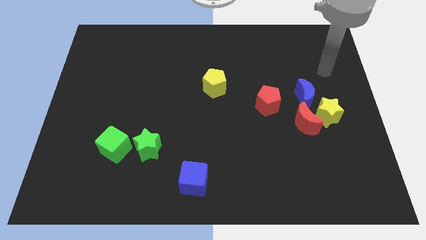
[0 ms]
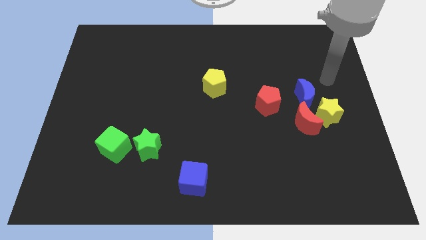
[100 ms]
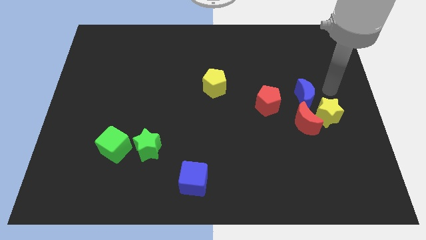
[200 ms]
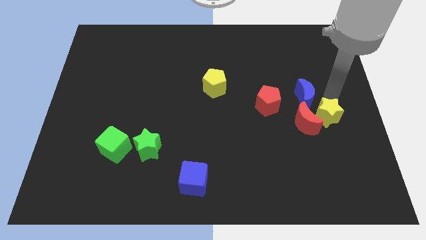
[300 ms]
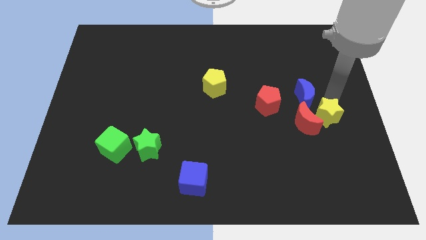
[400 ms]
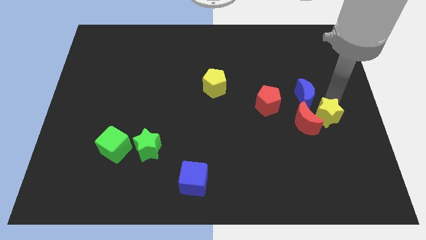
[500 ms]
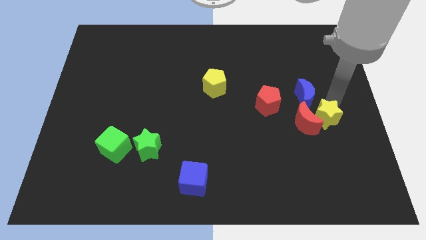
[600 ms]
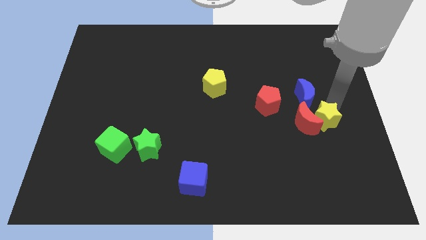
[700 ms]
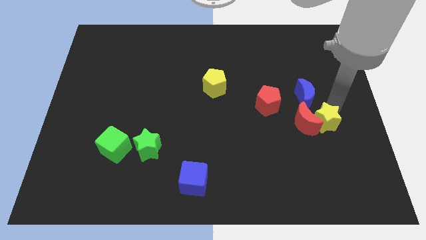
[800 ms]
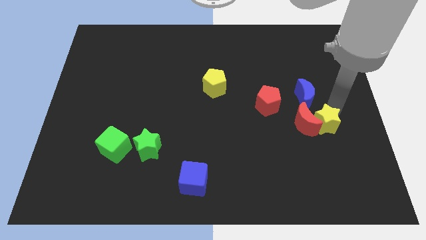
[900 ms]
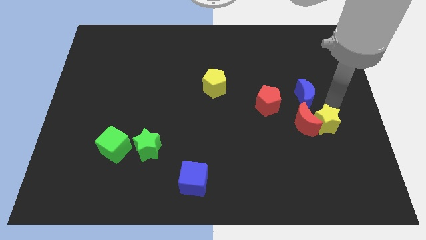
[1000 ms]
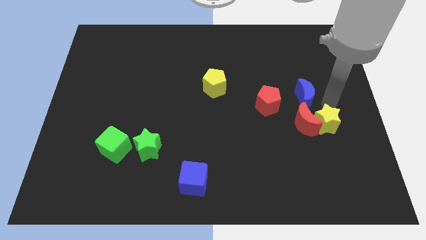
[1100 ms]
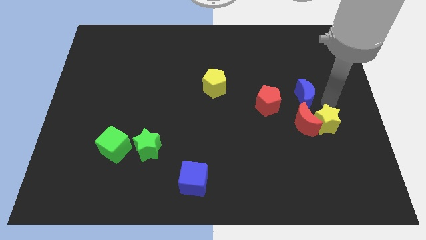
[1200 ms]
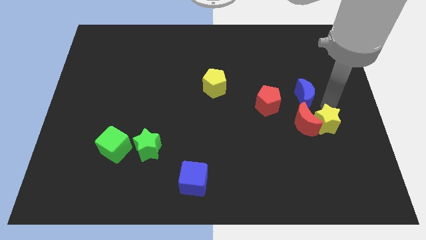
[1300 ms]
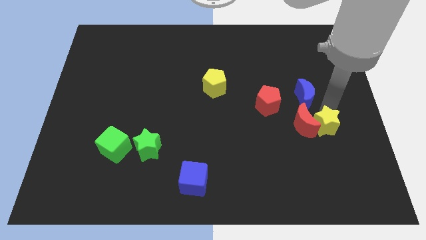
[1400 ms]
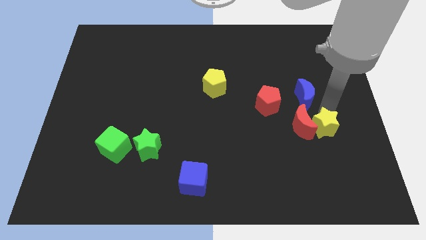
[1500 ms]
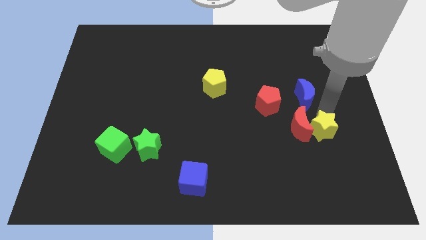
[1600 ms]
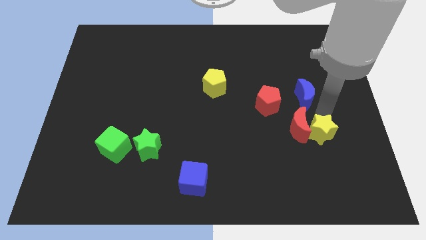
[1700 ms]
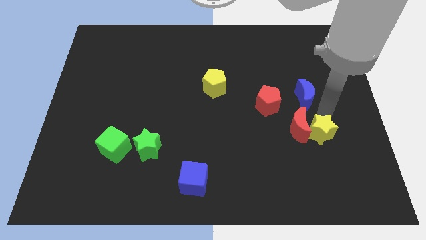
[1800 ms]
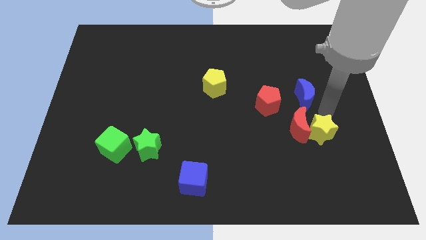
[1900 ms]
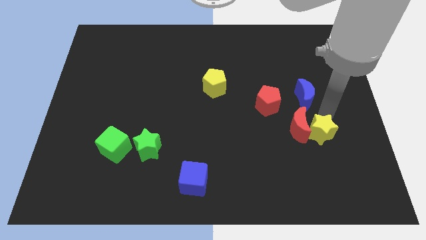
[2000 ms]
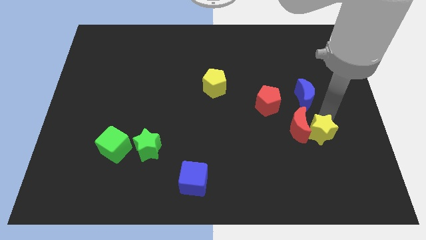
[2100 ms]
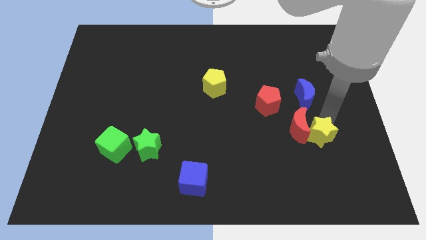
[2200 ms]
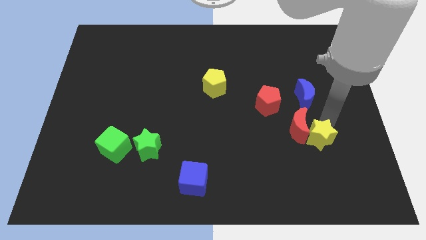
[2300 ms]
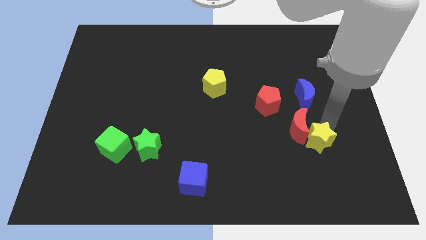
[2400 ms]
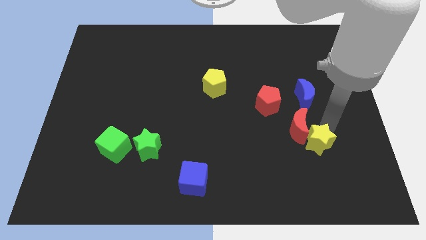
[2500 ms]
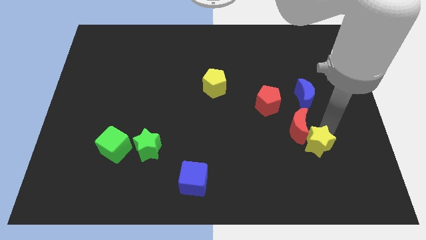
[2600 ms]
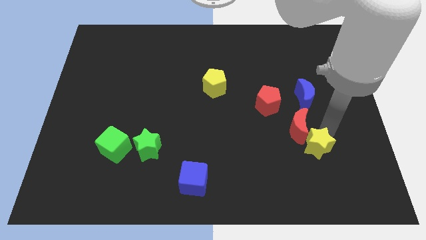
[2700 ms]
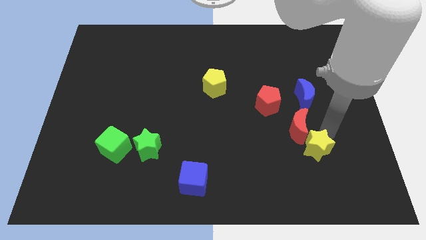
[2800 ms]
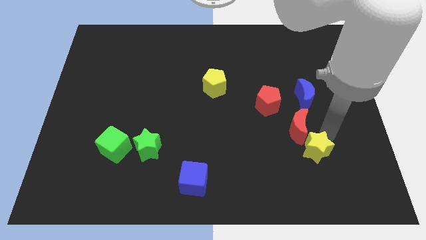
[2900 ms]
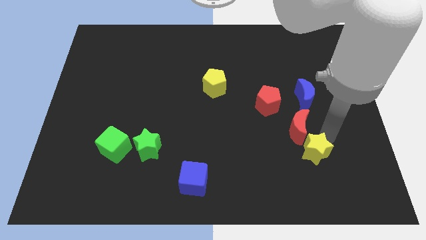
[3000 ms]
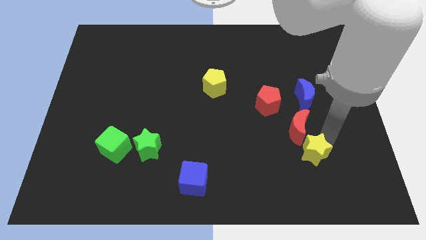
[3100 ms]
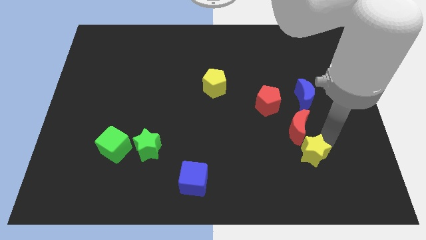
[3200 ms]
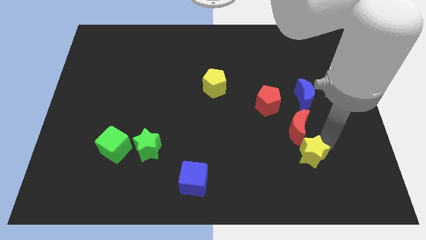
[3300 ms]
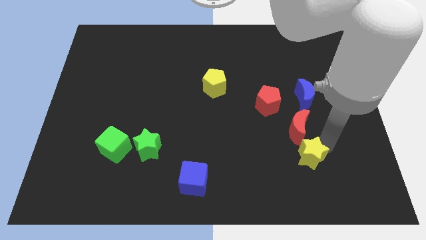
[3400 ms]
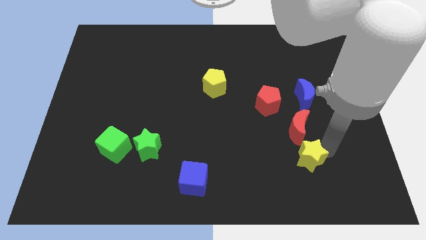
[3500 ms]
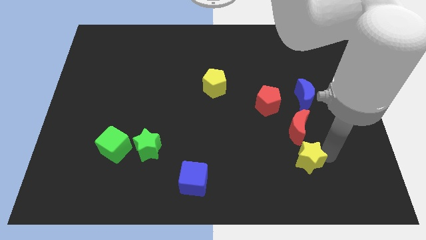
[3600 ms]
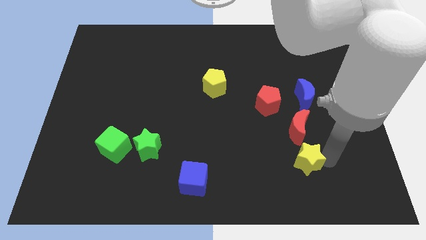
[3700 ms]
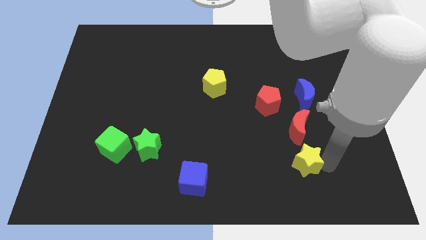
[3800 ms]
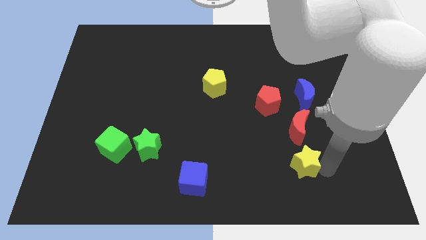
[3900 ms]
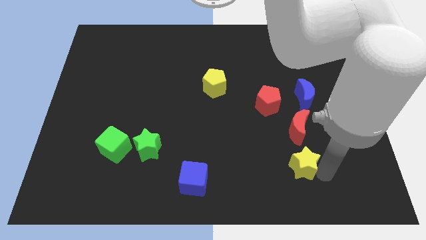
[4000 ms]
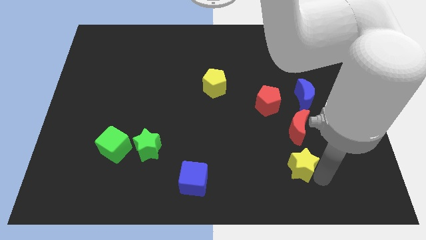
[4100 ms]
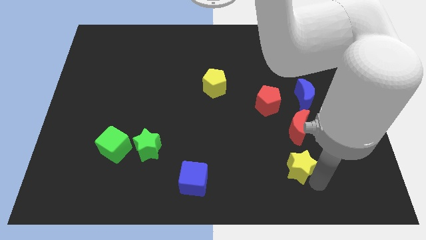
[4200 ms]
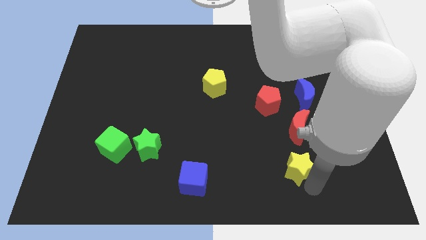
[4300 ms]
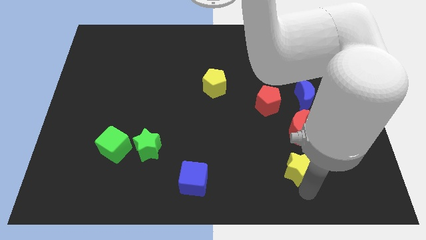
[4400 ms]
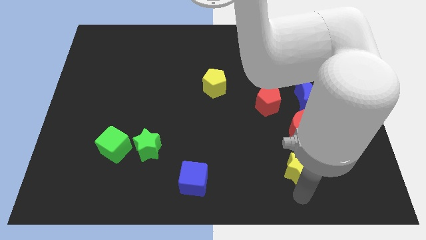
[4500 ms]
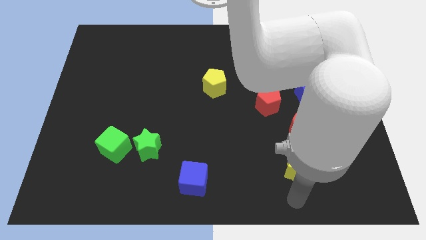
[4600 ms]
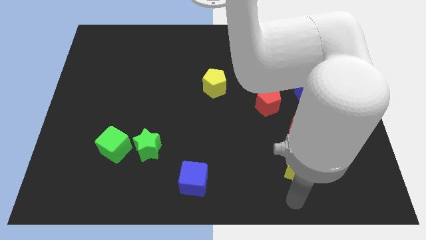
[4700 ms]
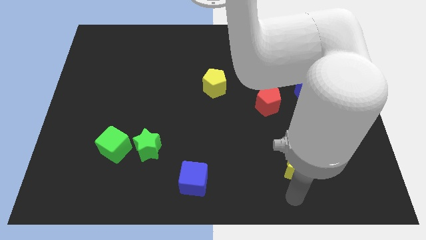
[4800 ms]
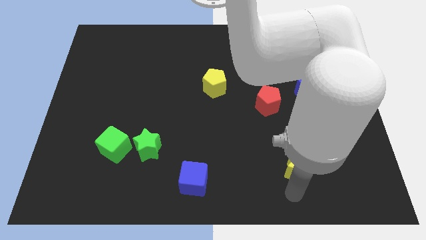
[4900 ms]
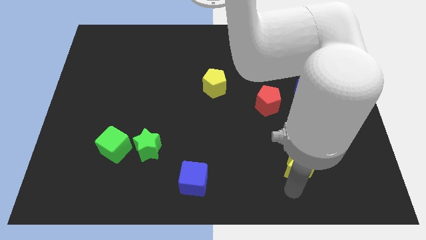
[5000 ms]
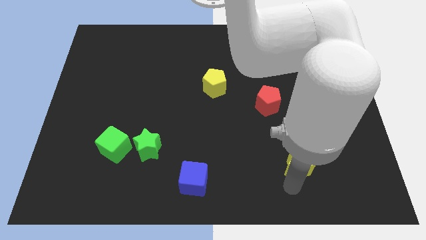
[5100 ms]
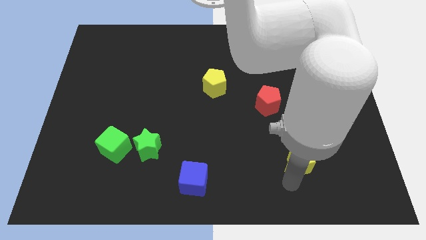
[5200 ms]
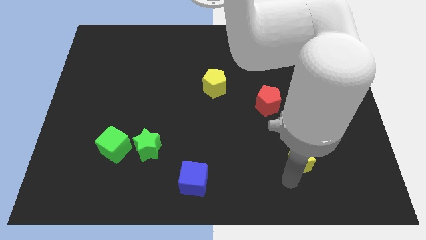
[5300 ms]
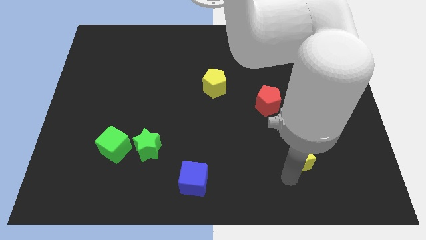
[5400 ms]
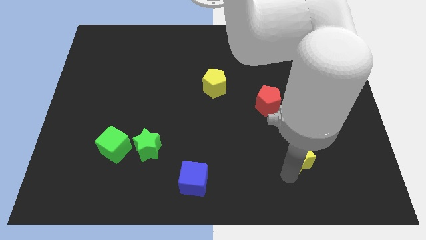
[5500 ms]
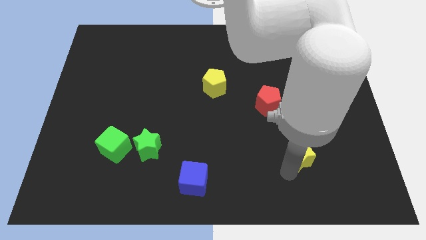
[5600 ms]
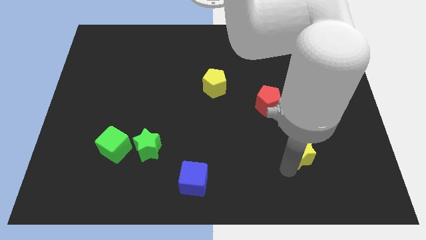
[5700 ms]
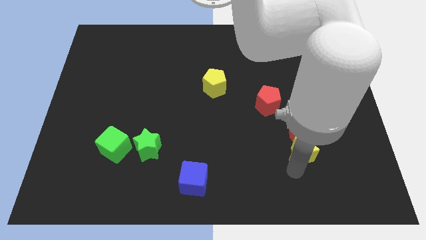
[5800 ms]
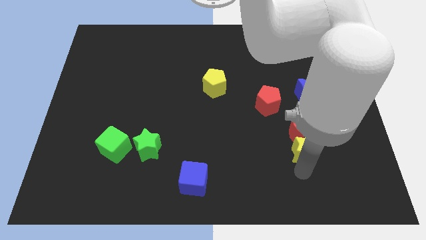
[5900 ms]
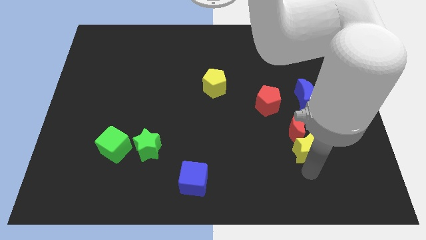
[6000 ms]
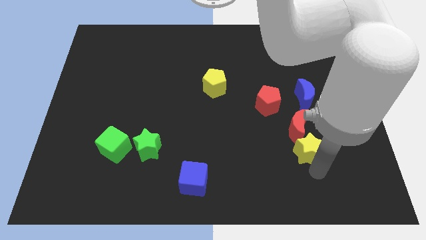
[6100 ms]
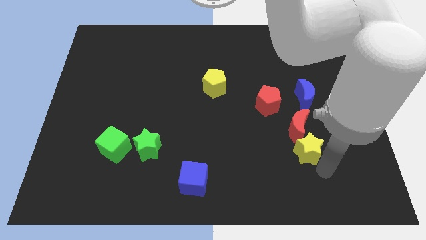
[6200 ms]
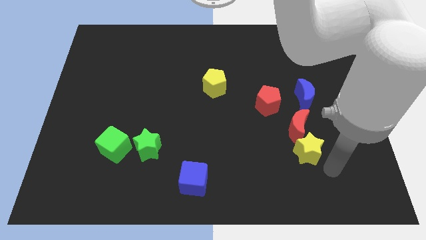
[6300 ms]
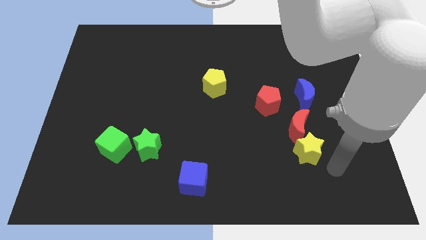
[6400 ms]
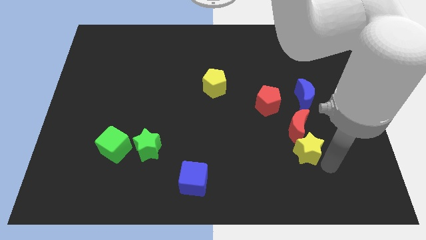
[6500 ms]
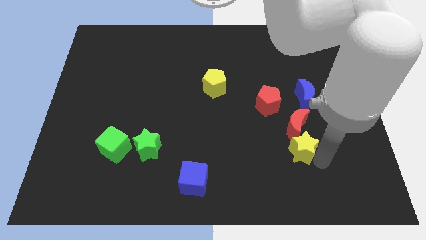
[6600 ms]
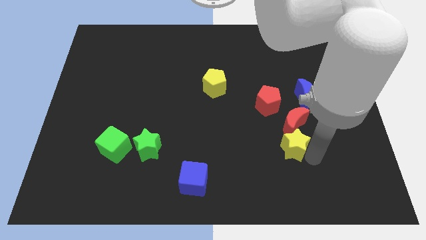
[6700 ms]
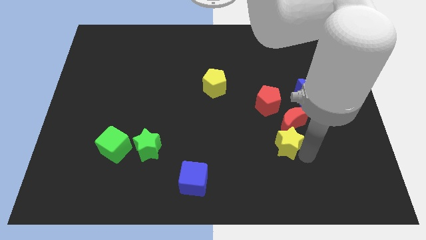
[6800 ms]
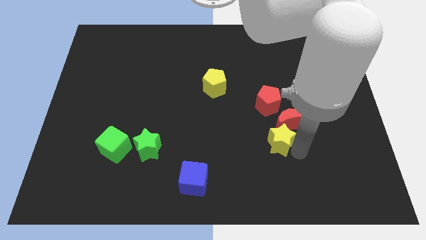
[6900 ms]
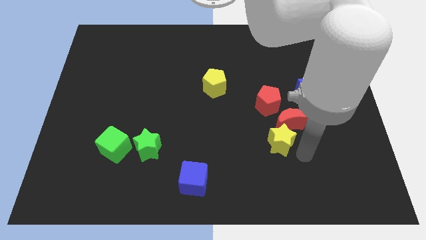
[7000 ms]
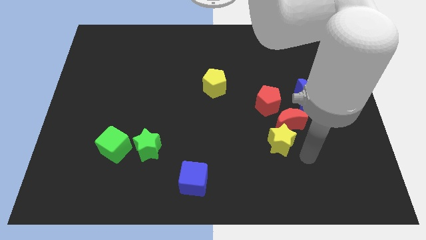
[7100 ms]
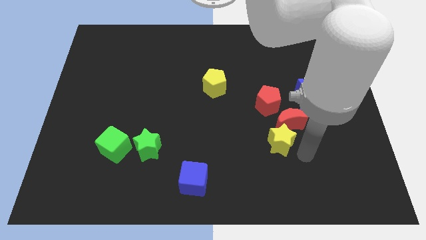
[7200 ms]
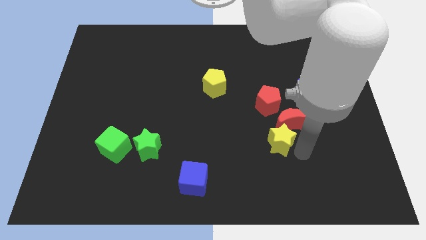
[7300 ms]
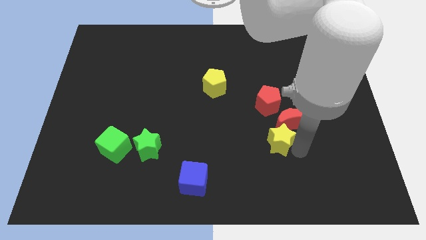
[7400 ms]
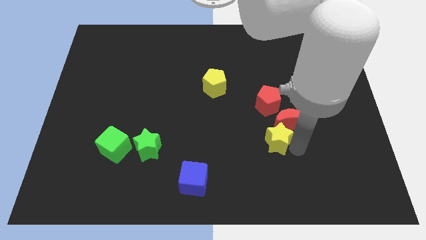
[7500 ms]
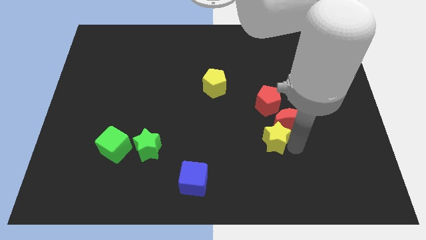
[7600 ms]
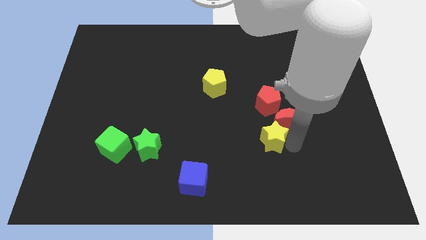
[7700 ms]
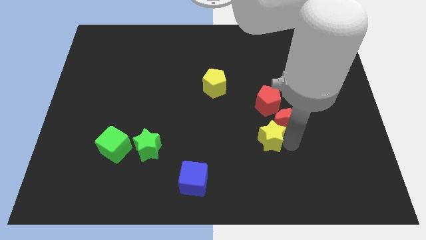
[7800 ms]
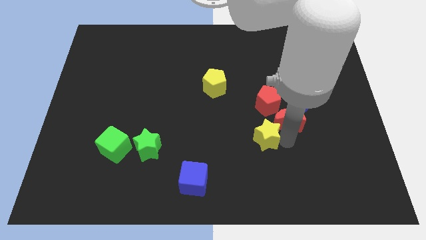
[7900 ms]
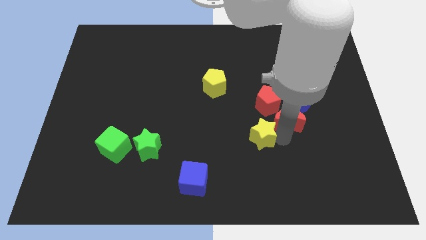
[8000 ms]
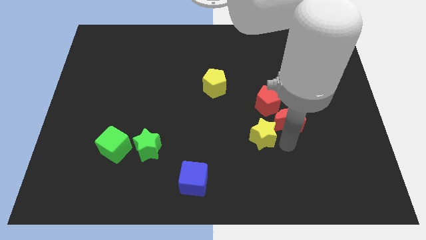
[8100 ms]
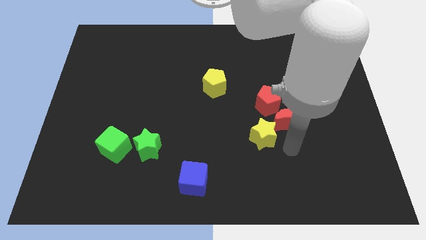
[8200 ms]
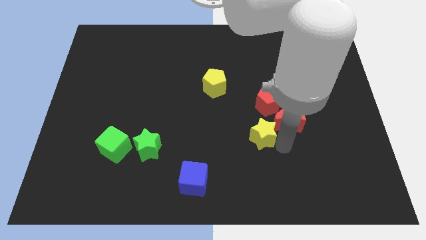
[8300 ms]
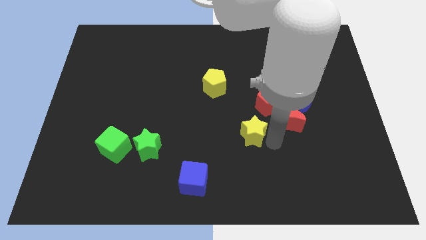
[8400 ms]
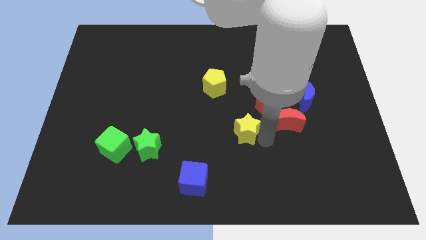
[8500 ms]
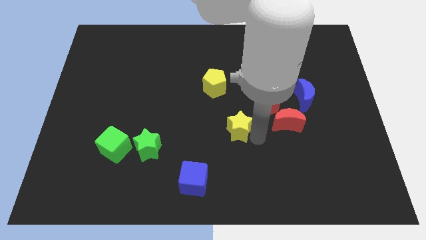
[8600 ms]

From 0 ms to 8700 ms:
move the yellow star left
